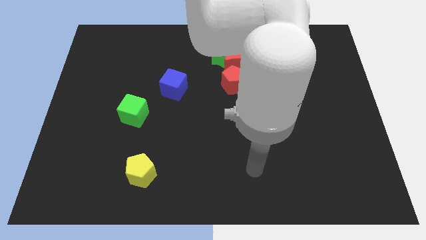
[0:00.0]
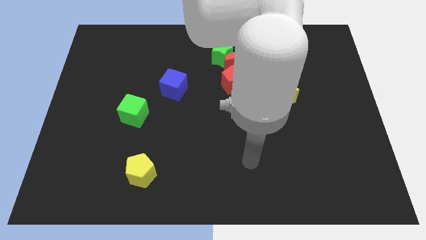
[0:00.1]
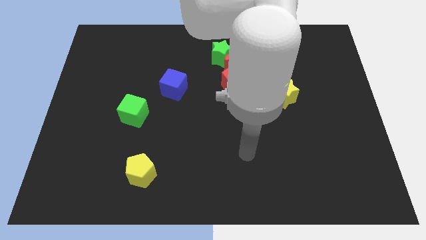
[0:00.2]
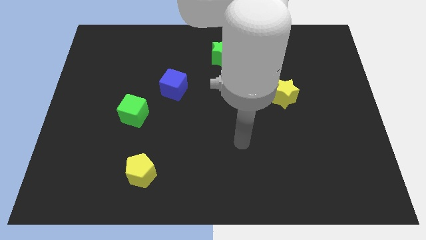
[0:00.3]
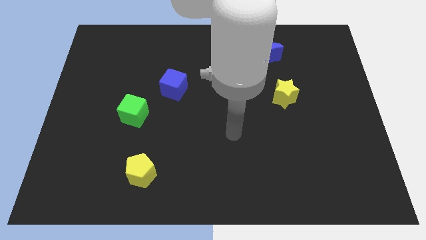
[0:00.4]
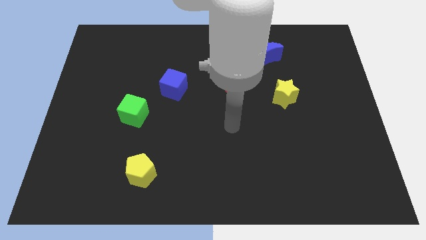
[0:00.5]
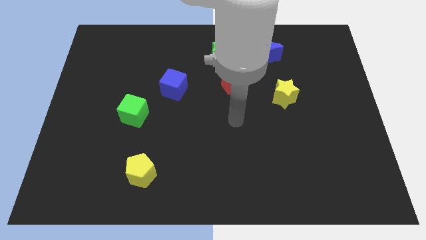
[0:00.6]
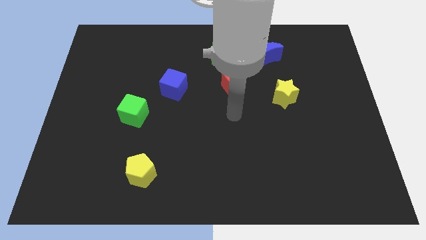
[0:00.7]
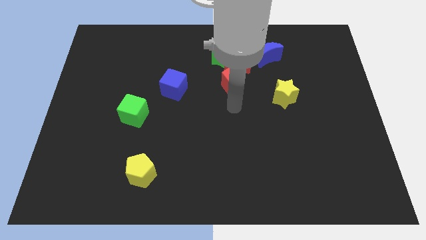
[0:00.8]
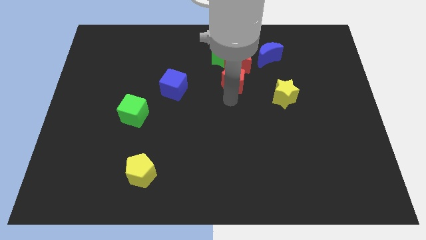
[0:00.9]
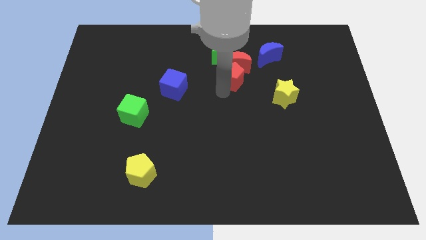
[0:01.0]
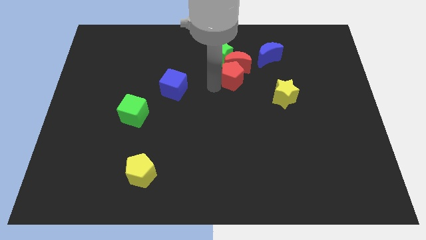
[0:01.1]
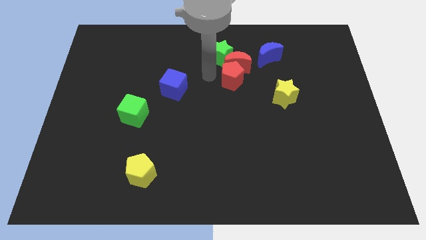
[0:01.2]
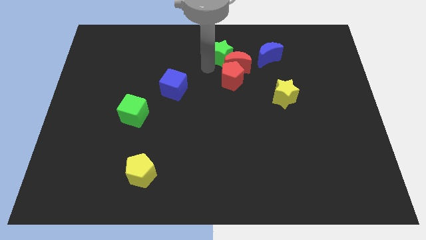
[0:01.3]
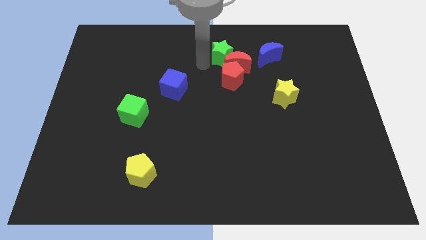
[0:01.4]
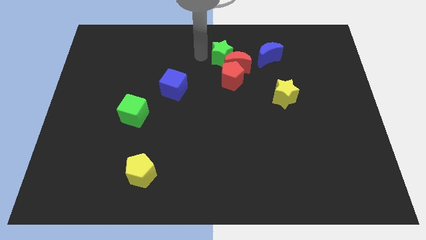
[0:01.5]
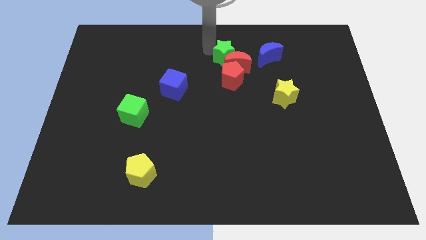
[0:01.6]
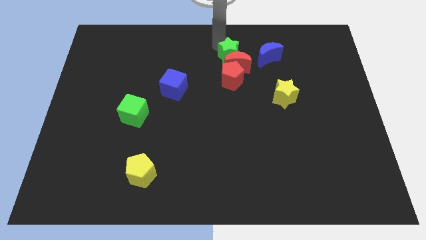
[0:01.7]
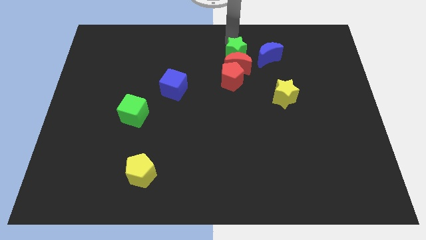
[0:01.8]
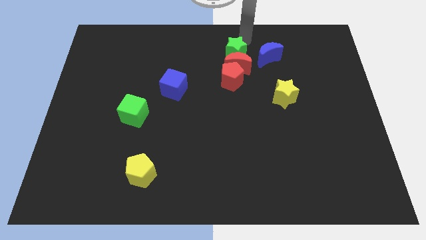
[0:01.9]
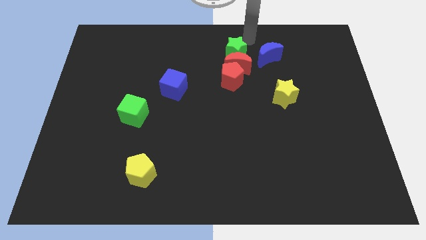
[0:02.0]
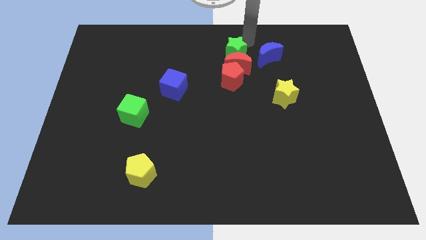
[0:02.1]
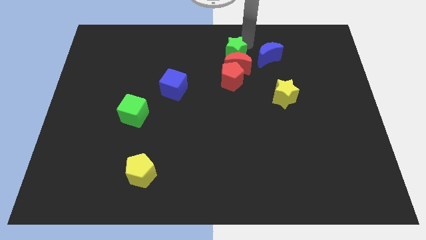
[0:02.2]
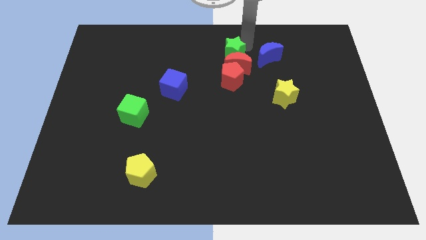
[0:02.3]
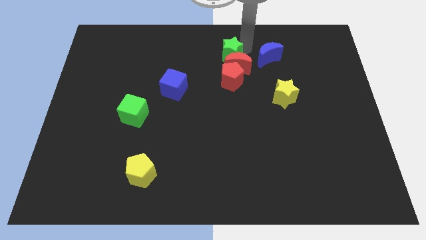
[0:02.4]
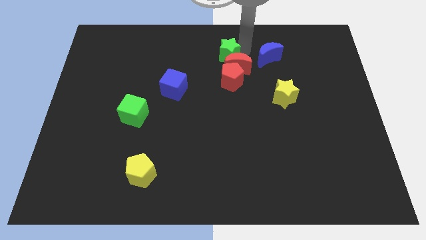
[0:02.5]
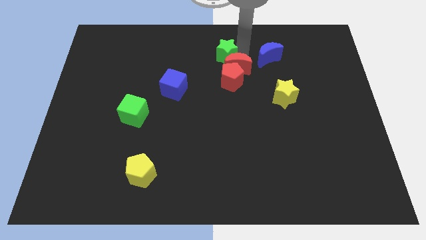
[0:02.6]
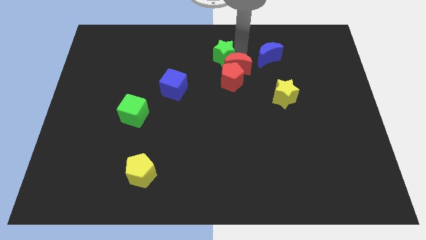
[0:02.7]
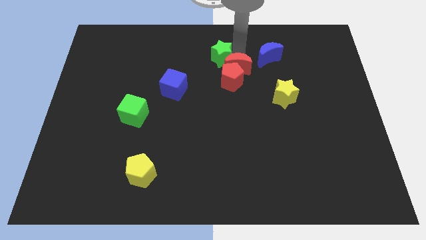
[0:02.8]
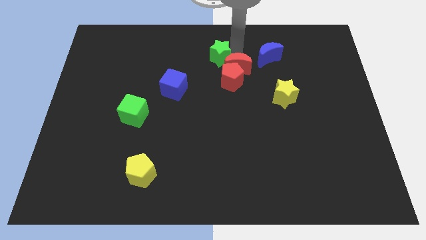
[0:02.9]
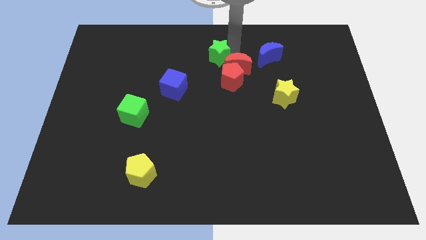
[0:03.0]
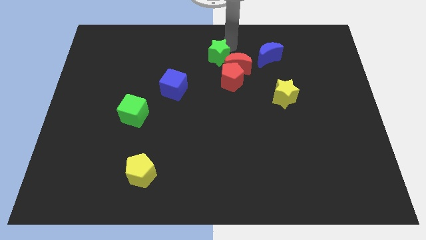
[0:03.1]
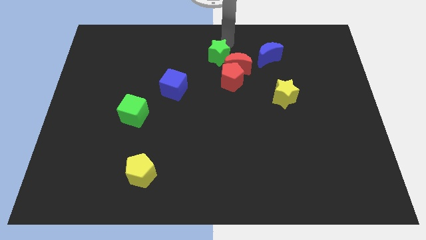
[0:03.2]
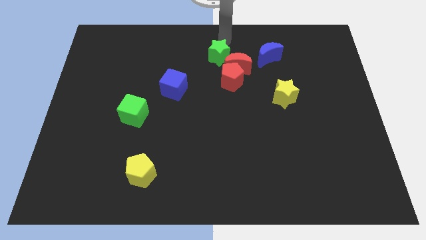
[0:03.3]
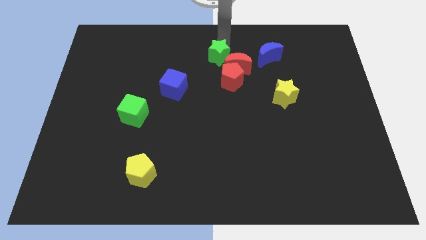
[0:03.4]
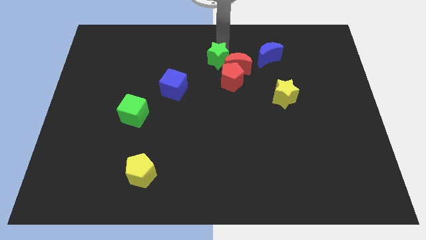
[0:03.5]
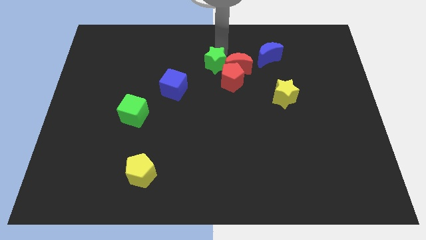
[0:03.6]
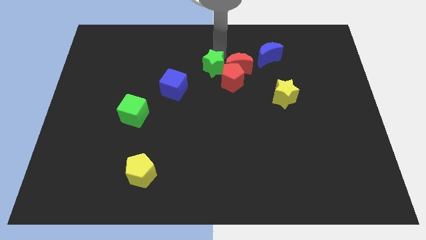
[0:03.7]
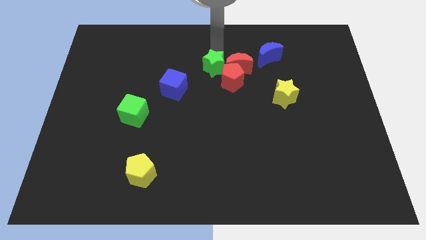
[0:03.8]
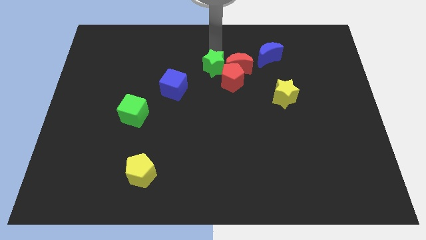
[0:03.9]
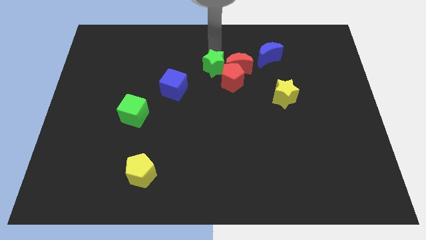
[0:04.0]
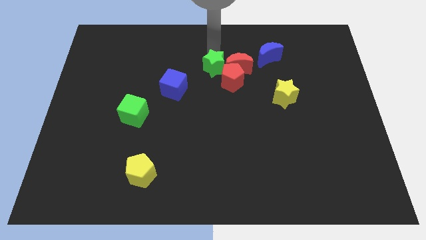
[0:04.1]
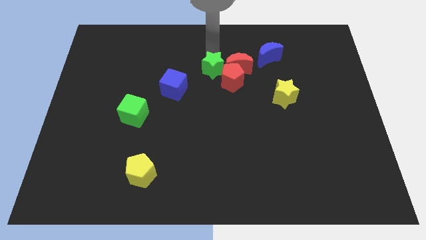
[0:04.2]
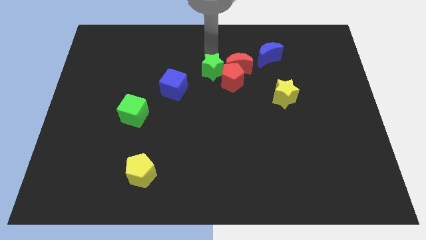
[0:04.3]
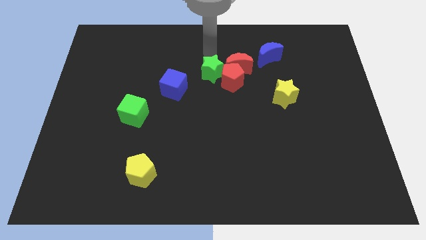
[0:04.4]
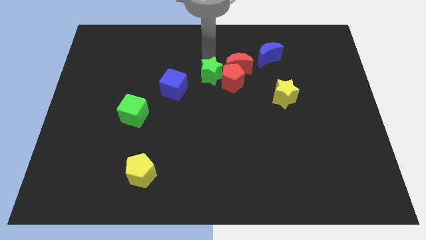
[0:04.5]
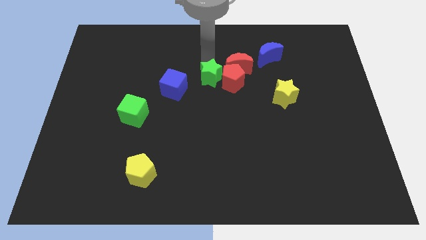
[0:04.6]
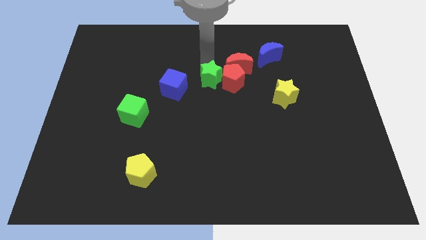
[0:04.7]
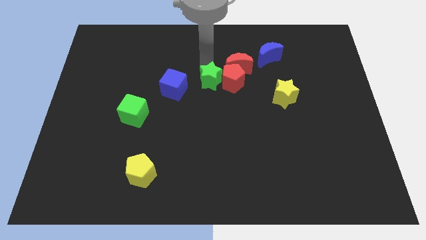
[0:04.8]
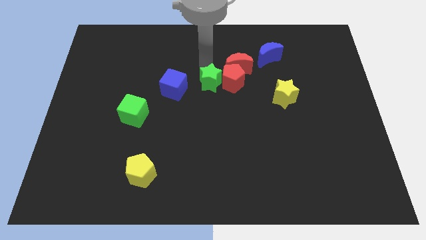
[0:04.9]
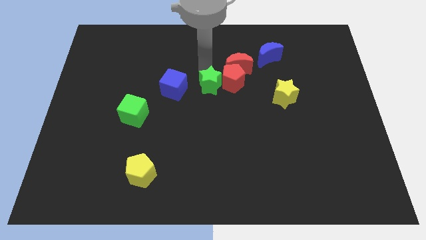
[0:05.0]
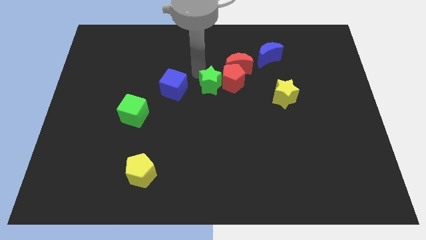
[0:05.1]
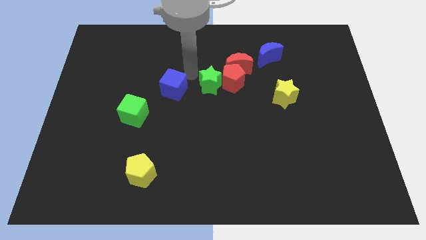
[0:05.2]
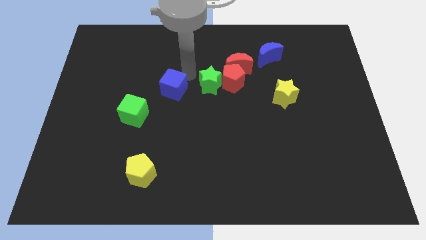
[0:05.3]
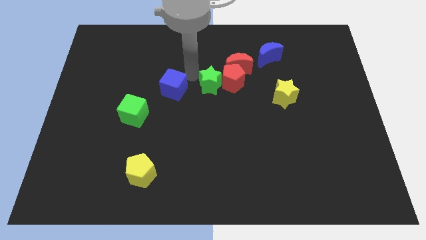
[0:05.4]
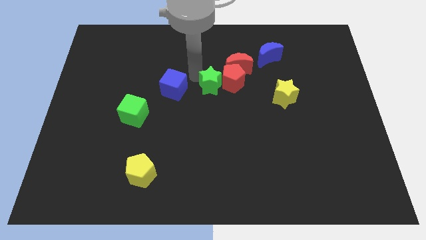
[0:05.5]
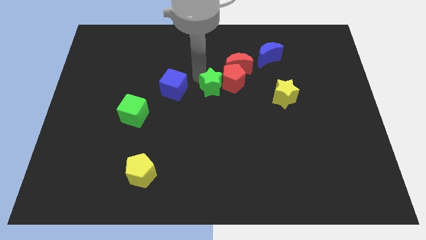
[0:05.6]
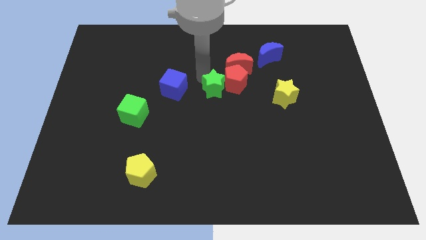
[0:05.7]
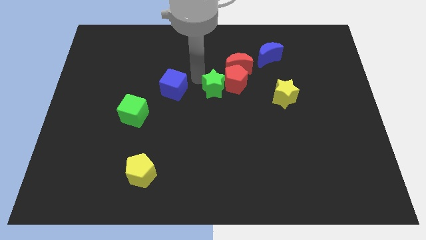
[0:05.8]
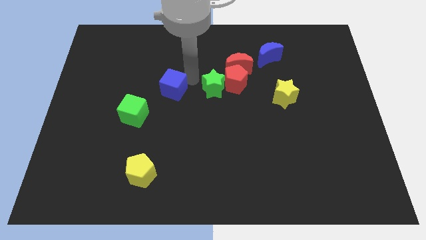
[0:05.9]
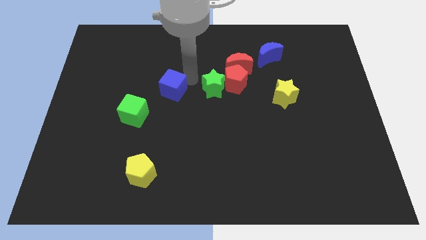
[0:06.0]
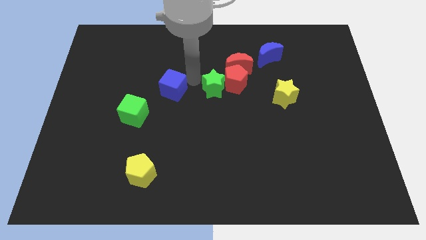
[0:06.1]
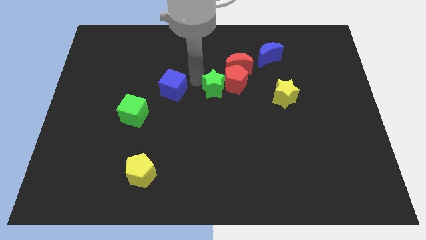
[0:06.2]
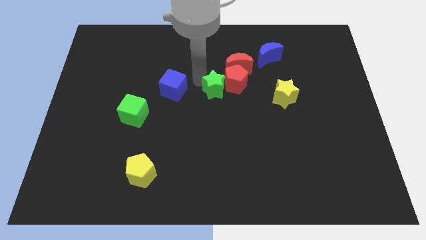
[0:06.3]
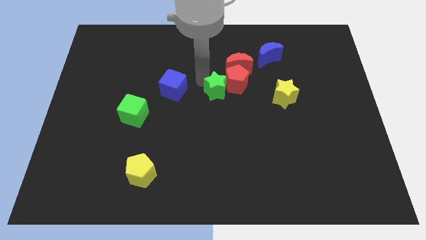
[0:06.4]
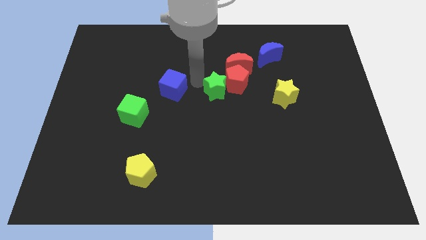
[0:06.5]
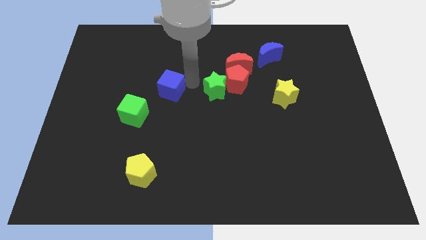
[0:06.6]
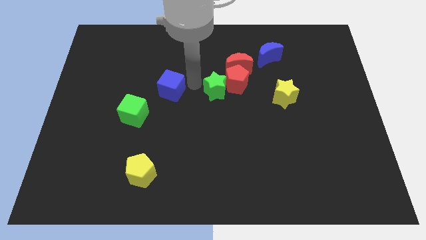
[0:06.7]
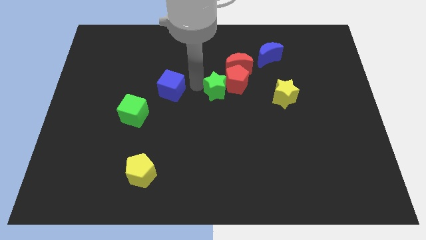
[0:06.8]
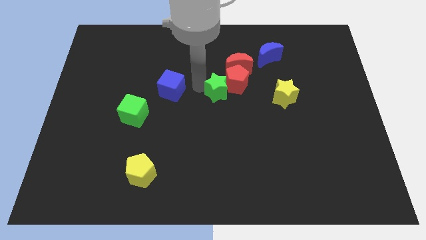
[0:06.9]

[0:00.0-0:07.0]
push the green star just left of the yellow star
